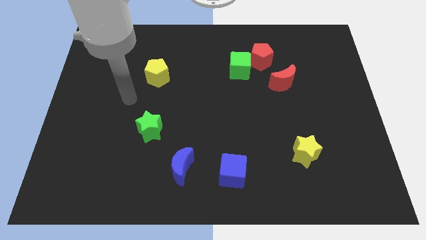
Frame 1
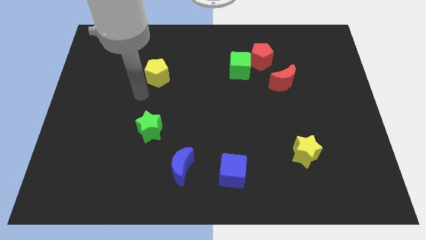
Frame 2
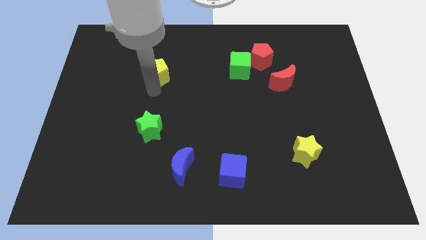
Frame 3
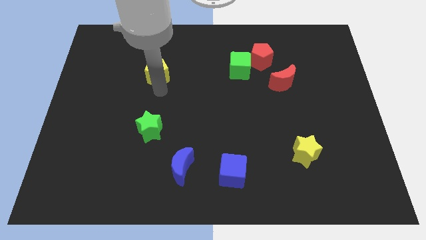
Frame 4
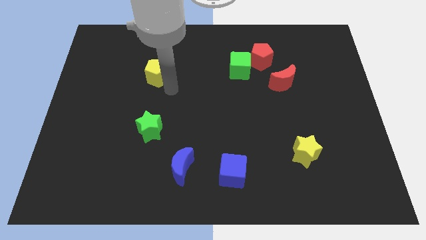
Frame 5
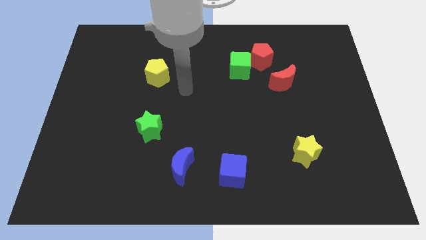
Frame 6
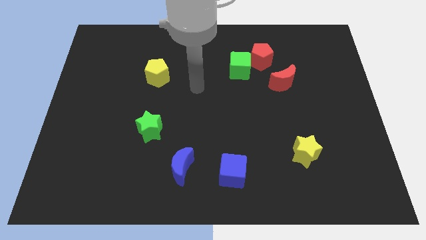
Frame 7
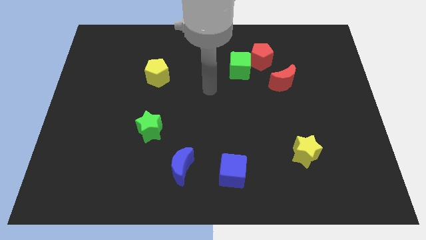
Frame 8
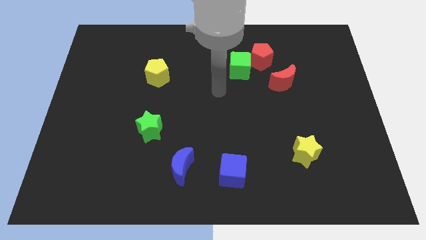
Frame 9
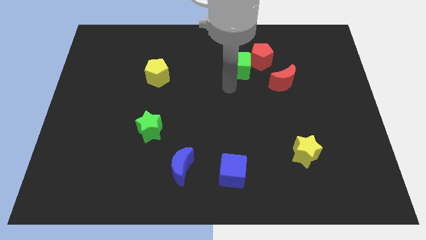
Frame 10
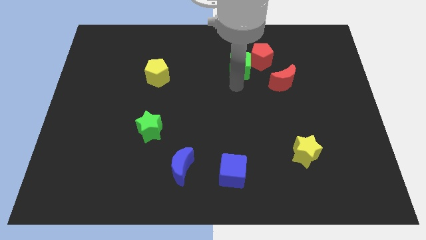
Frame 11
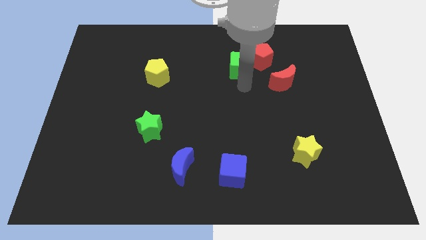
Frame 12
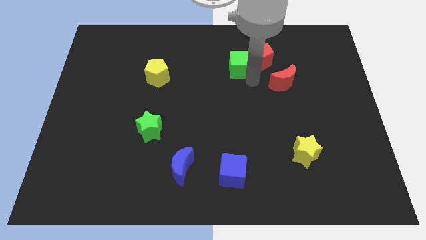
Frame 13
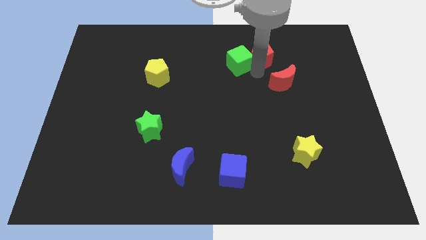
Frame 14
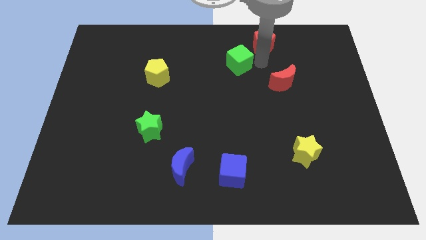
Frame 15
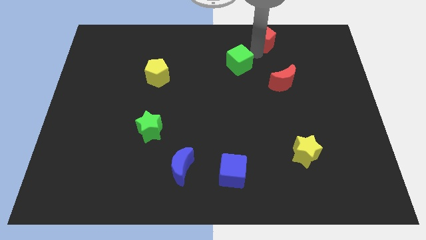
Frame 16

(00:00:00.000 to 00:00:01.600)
pull the green cube apart from the red pentagon

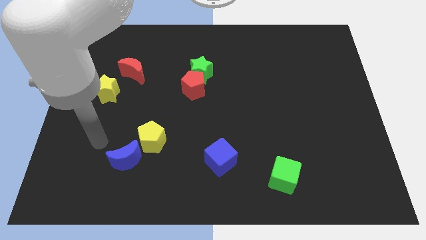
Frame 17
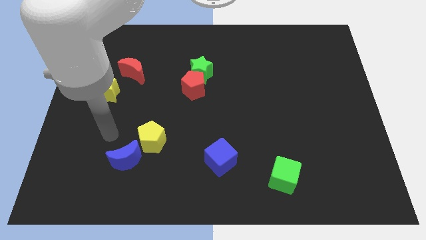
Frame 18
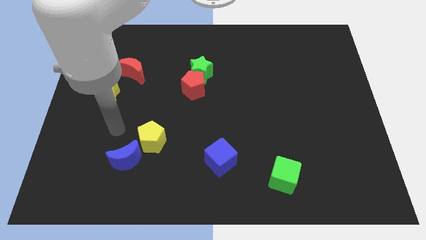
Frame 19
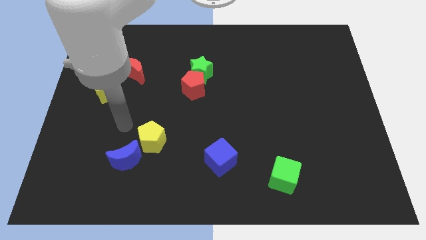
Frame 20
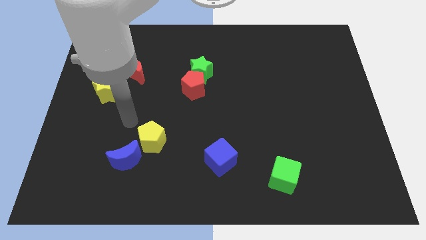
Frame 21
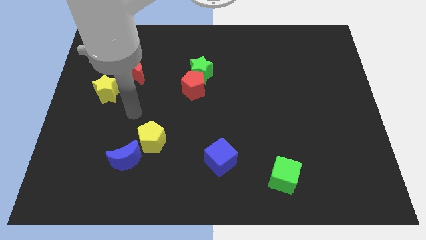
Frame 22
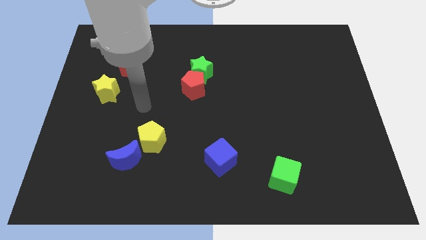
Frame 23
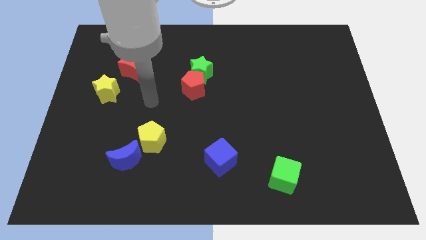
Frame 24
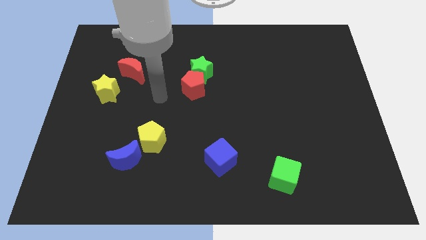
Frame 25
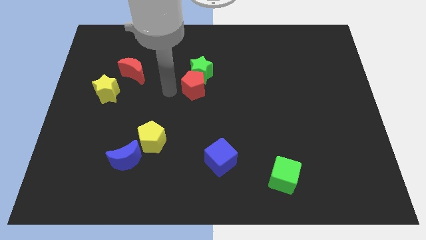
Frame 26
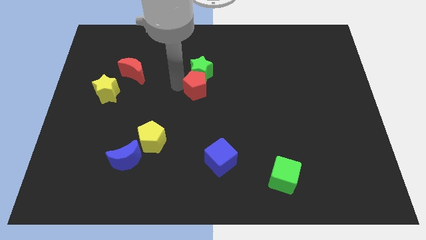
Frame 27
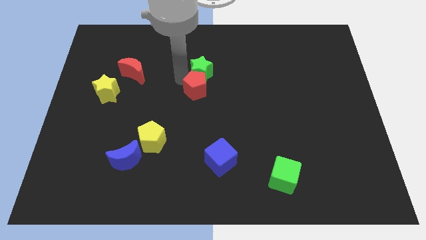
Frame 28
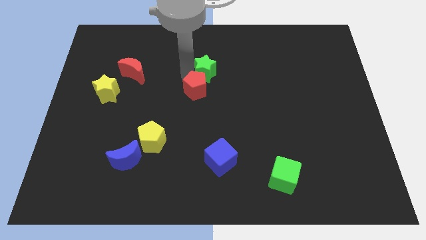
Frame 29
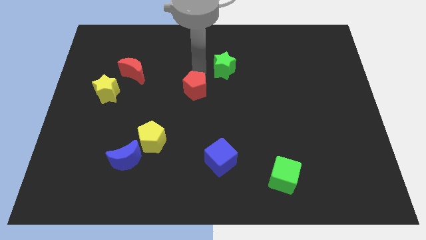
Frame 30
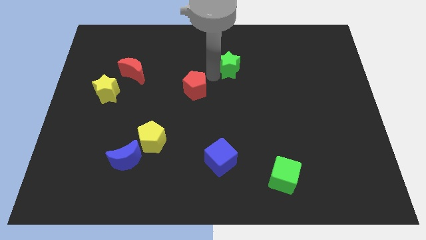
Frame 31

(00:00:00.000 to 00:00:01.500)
pull the red pentagon apart from the green star

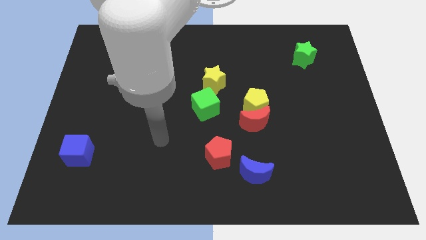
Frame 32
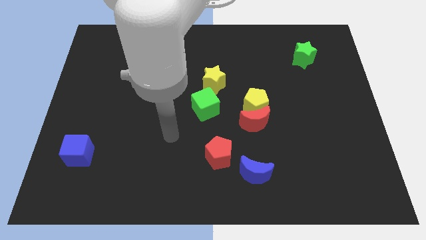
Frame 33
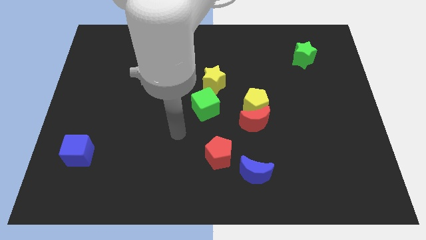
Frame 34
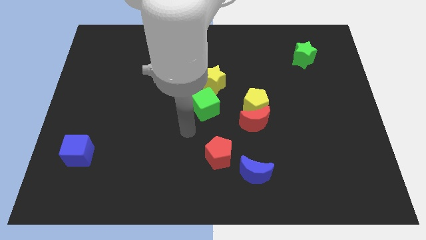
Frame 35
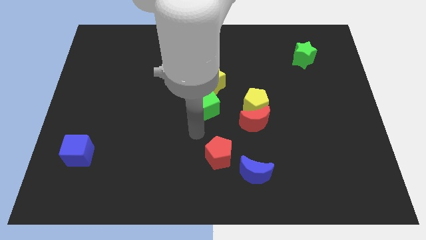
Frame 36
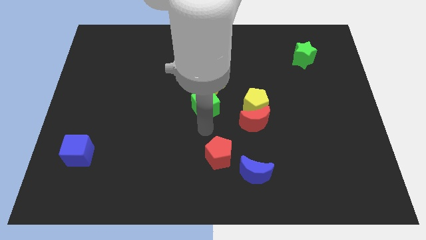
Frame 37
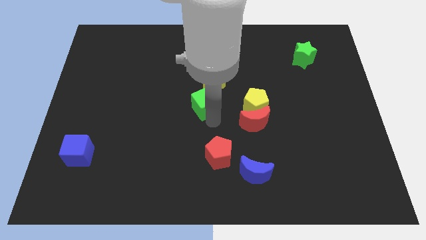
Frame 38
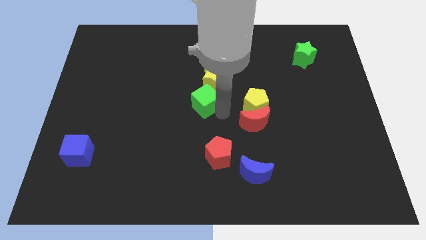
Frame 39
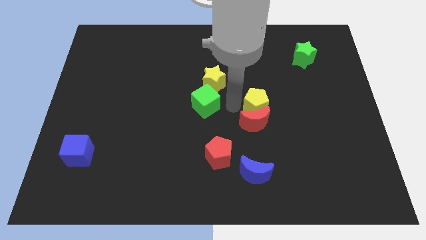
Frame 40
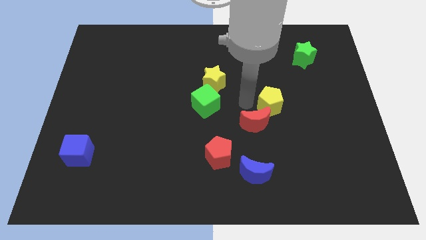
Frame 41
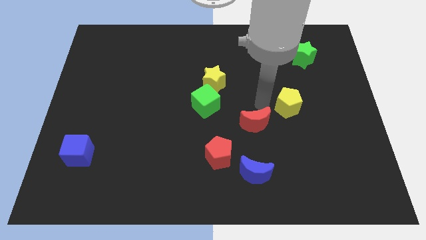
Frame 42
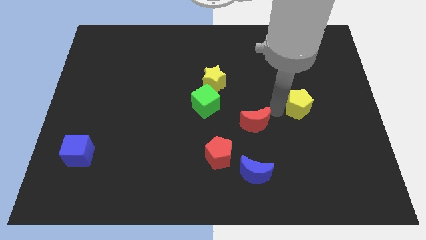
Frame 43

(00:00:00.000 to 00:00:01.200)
pull the red moon apart from the yellow pentagon

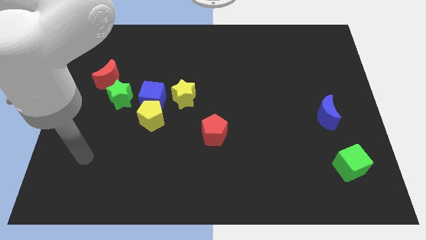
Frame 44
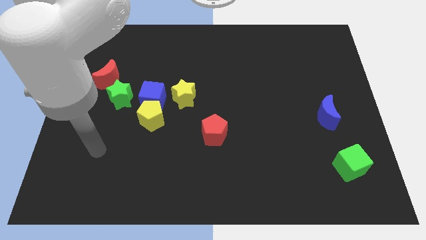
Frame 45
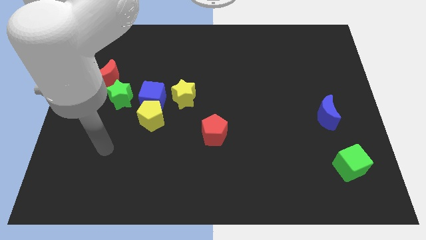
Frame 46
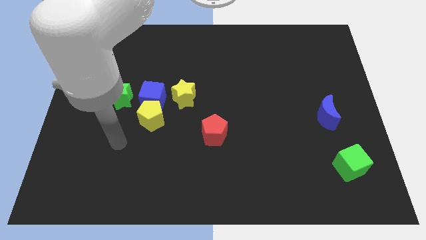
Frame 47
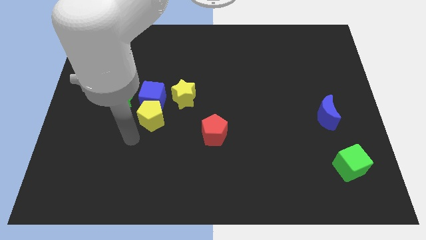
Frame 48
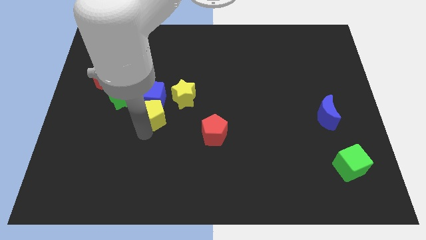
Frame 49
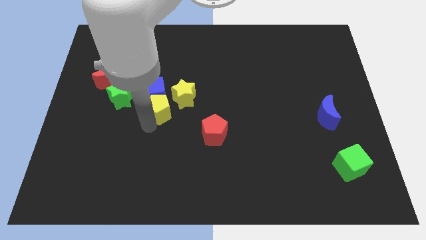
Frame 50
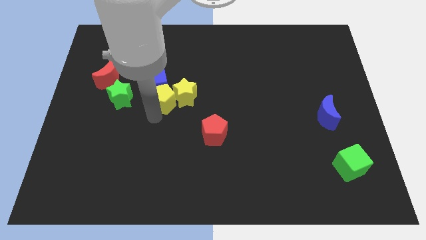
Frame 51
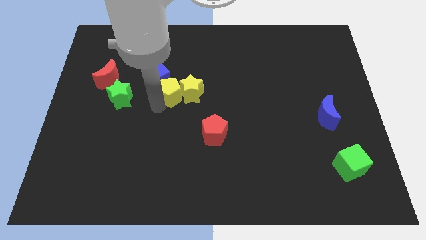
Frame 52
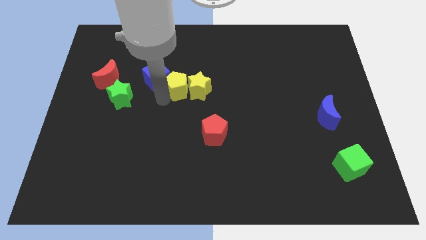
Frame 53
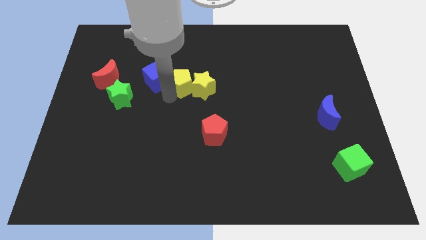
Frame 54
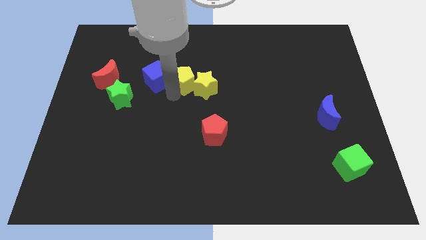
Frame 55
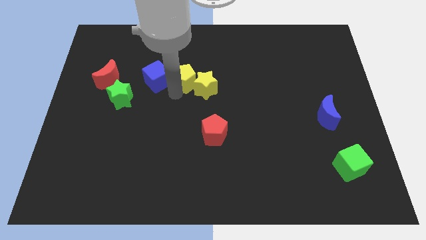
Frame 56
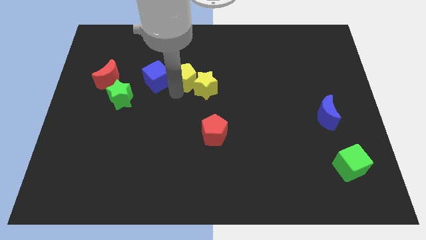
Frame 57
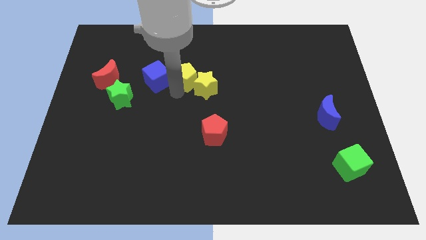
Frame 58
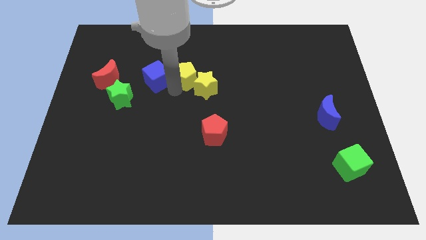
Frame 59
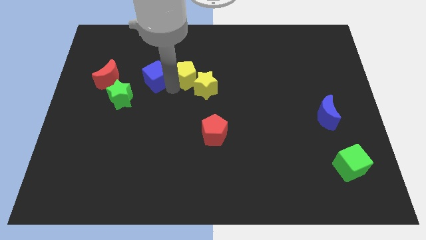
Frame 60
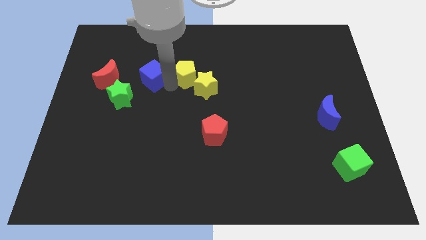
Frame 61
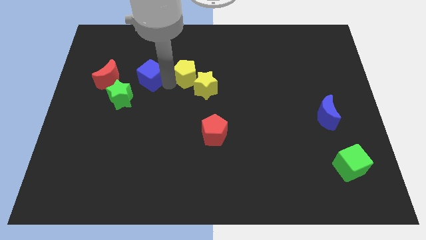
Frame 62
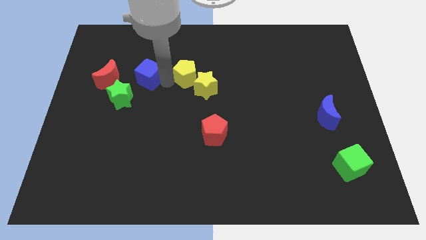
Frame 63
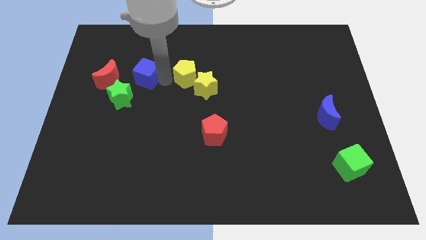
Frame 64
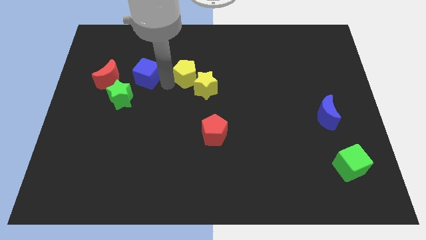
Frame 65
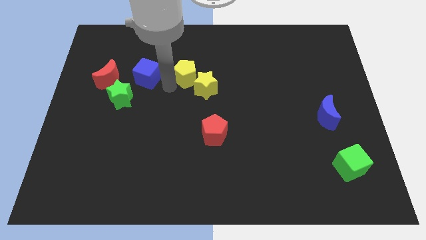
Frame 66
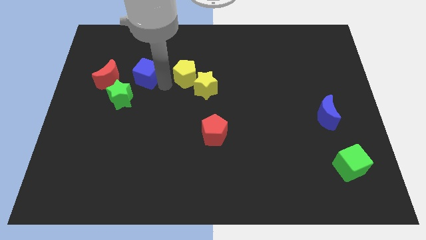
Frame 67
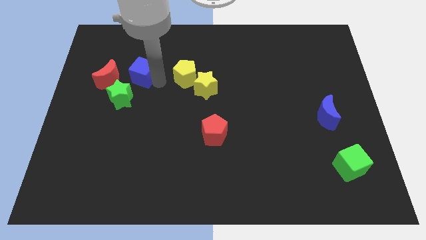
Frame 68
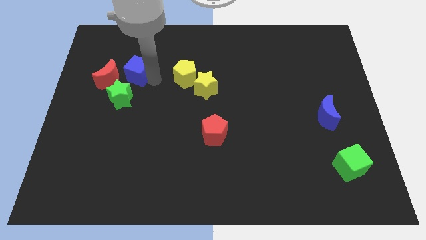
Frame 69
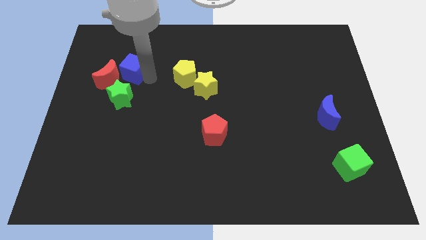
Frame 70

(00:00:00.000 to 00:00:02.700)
separate the blue cube from the group of blocks

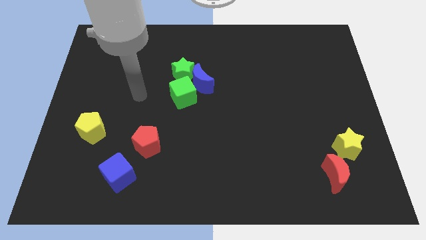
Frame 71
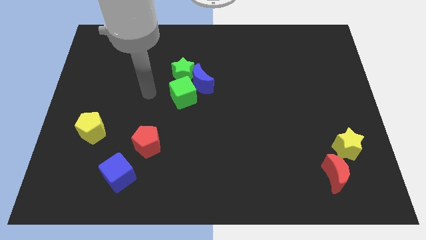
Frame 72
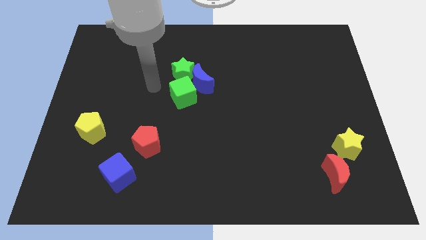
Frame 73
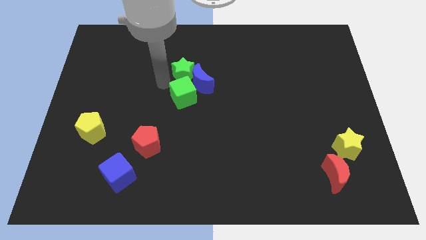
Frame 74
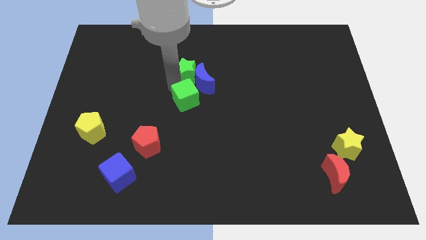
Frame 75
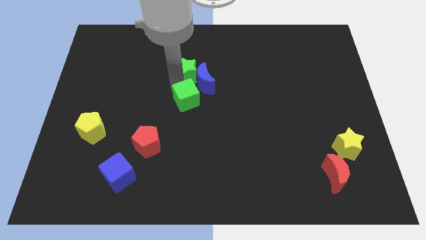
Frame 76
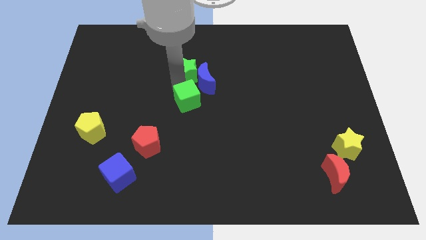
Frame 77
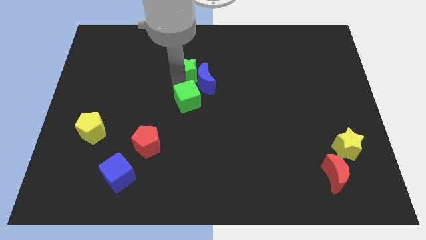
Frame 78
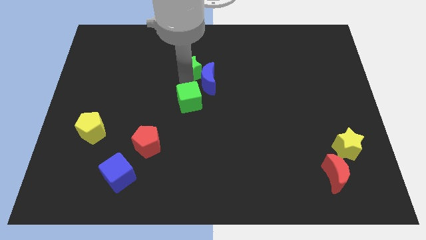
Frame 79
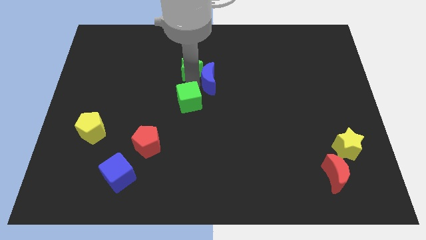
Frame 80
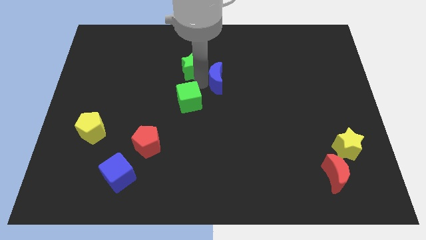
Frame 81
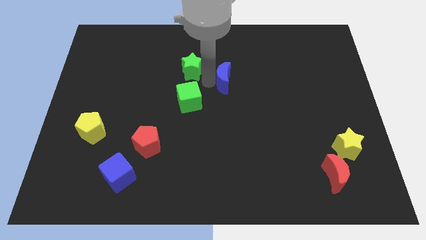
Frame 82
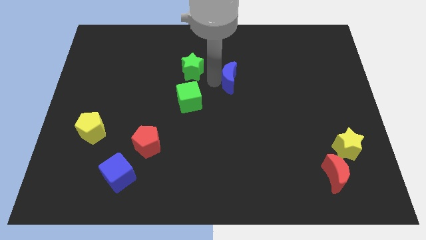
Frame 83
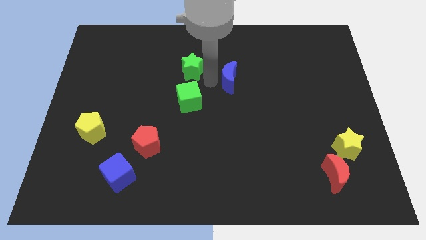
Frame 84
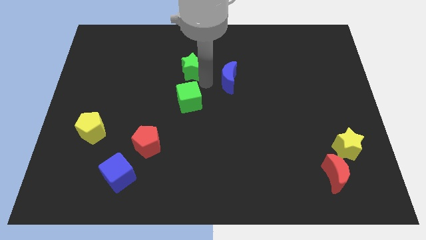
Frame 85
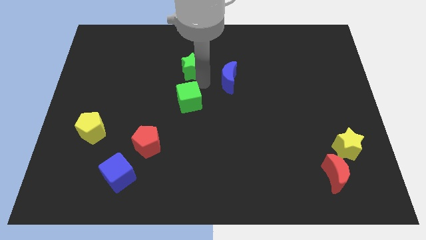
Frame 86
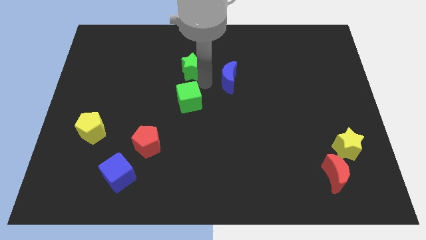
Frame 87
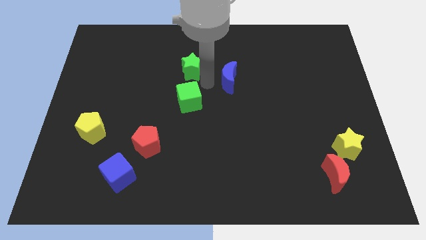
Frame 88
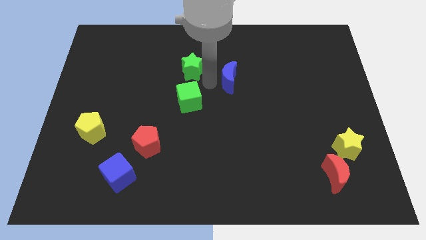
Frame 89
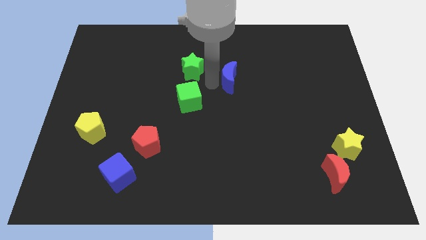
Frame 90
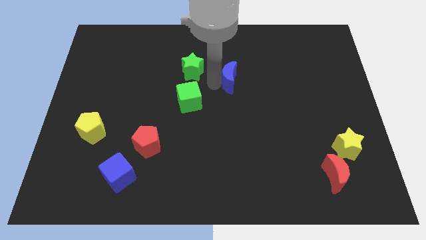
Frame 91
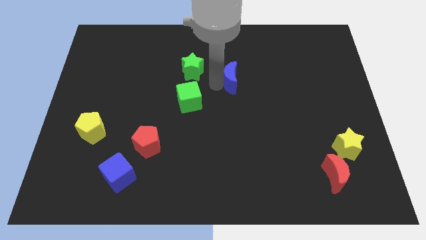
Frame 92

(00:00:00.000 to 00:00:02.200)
move the blue moon away from the green star and green cube
